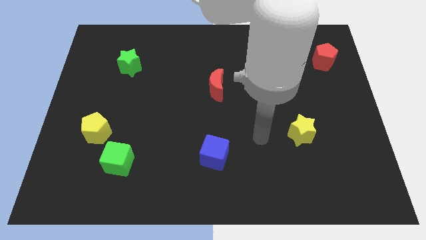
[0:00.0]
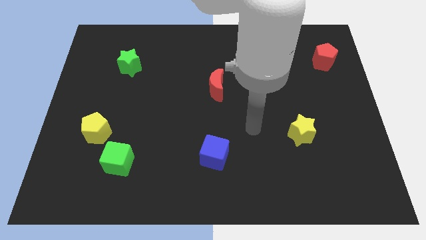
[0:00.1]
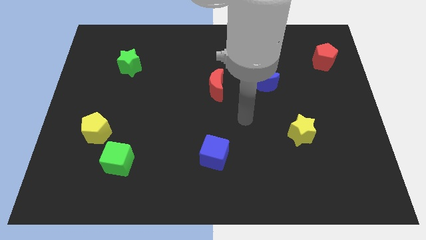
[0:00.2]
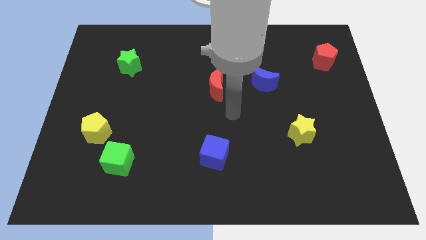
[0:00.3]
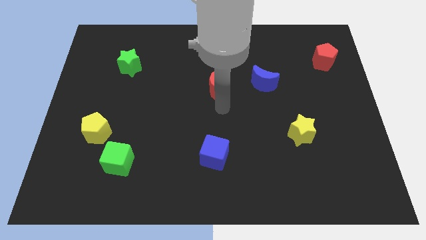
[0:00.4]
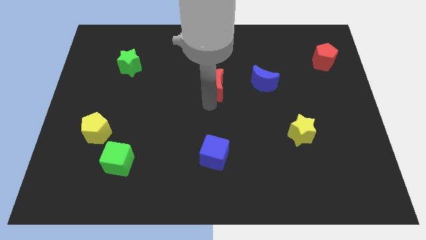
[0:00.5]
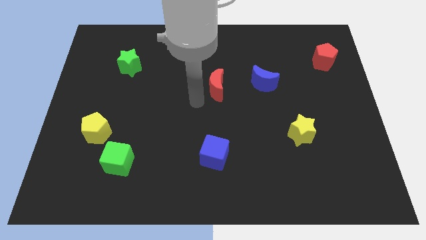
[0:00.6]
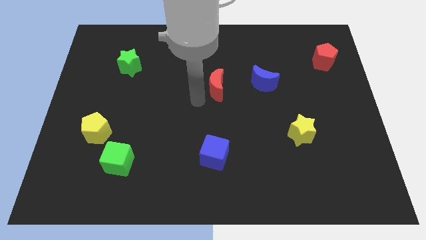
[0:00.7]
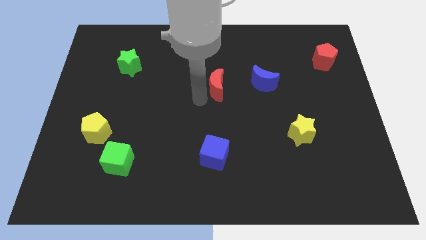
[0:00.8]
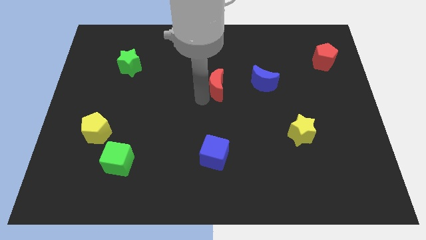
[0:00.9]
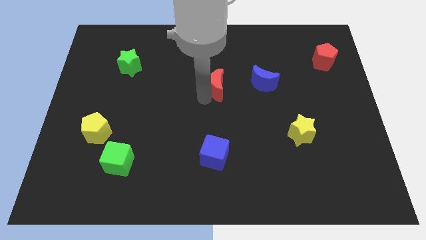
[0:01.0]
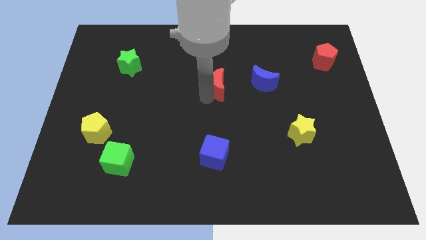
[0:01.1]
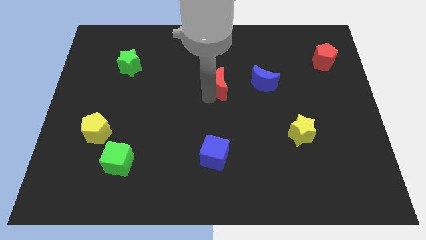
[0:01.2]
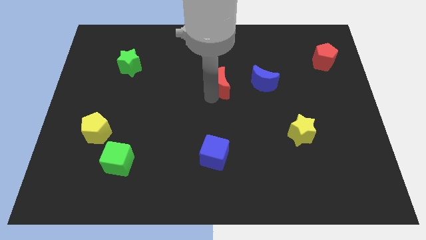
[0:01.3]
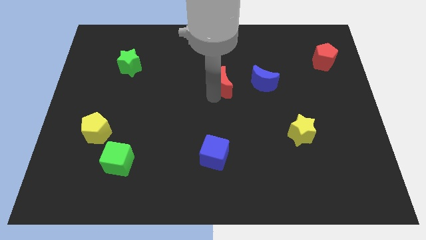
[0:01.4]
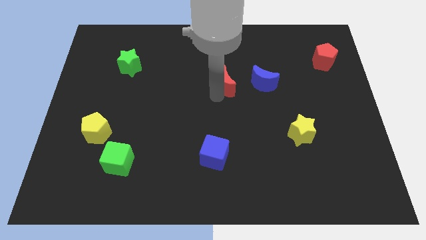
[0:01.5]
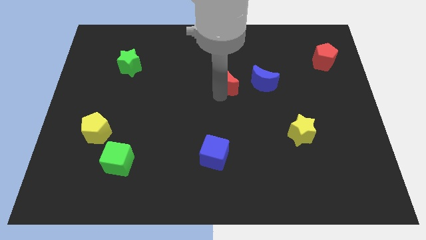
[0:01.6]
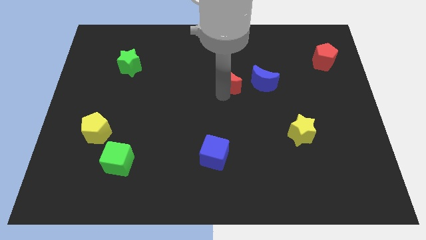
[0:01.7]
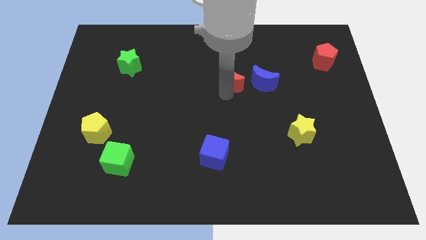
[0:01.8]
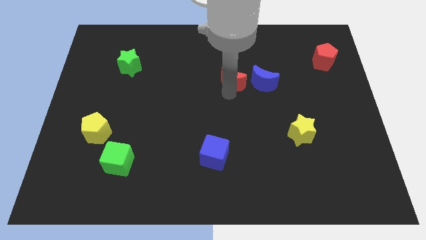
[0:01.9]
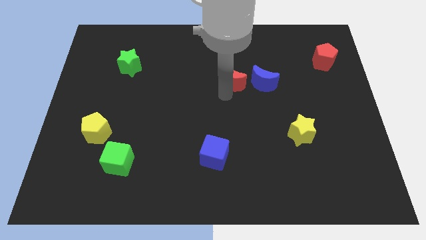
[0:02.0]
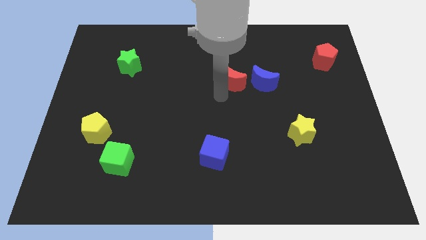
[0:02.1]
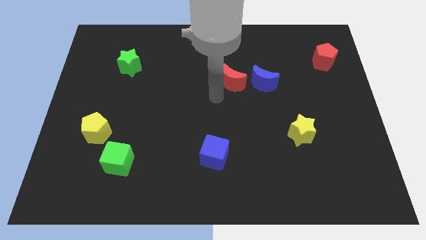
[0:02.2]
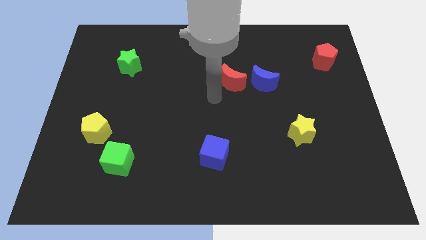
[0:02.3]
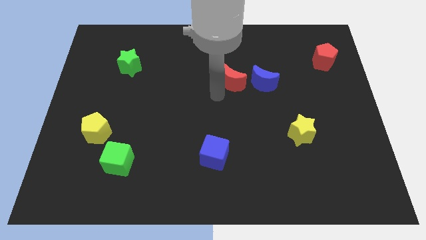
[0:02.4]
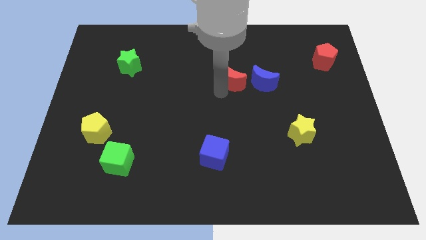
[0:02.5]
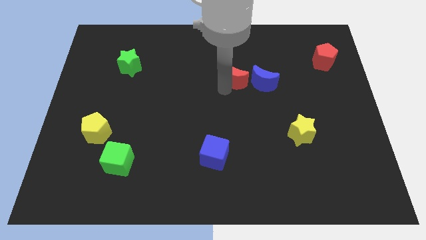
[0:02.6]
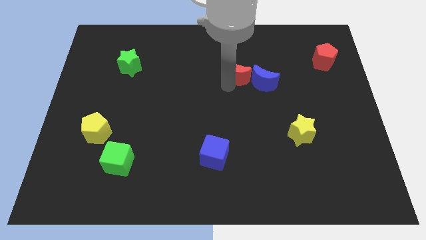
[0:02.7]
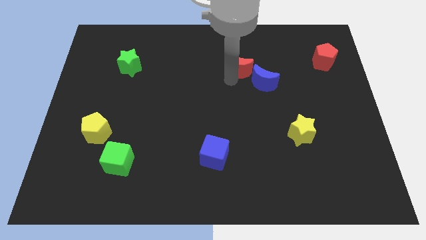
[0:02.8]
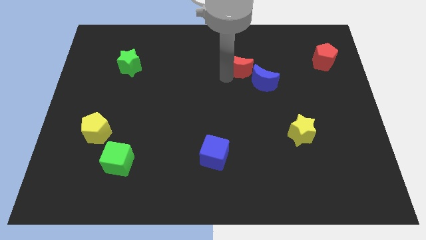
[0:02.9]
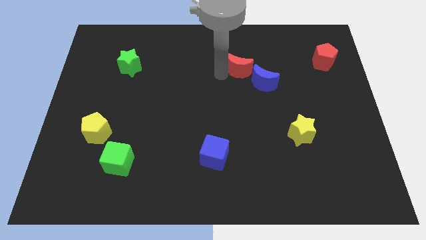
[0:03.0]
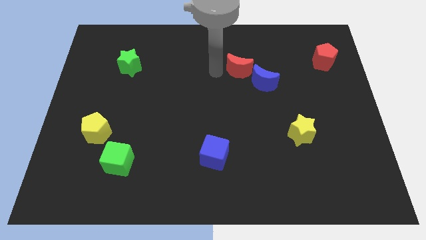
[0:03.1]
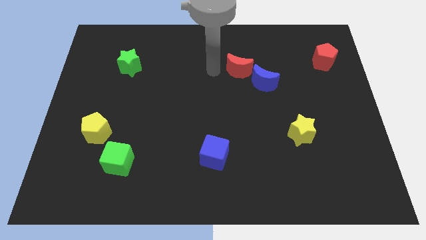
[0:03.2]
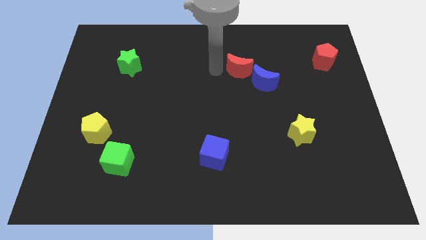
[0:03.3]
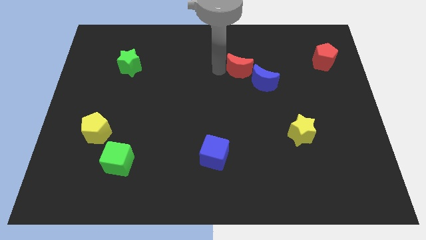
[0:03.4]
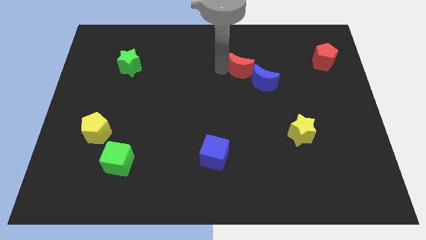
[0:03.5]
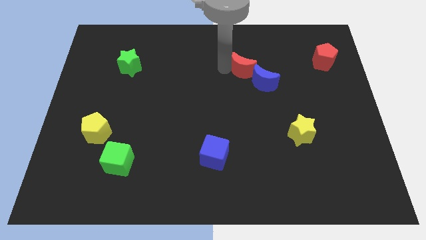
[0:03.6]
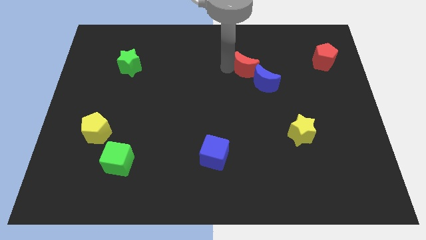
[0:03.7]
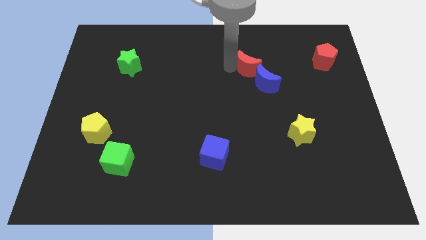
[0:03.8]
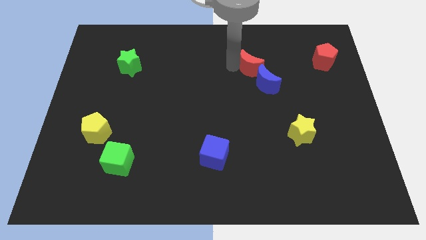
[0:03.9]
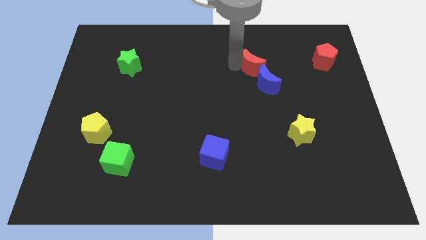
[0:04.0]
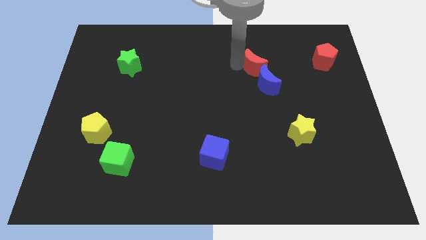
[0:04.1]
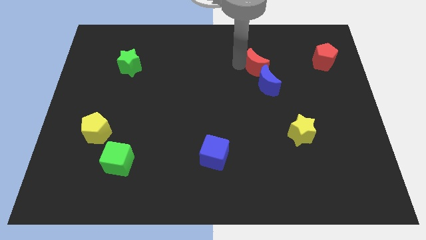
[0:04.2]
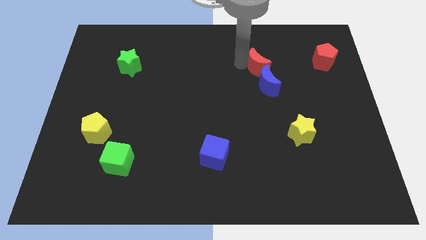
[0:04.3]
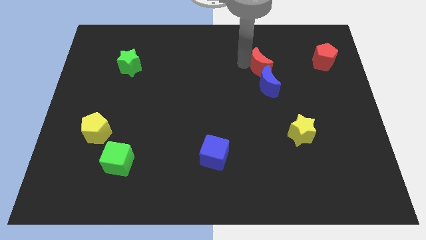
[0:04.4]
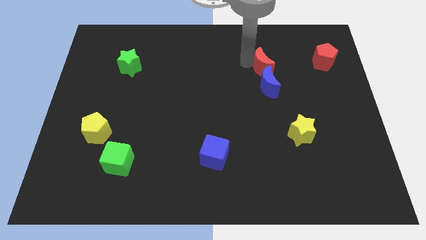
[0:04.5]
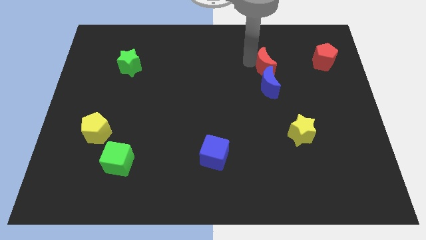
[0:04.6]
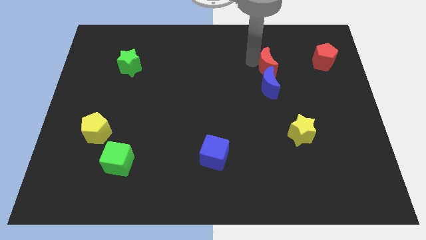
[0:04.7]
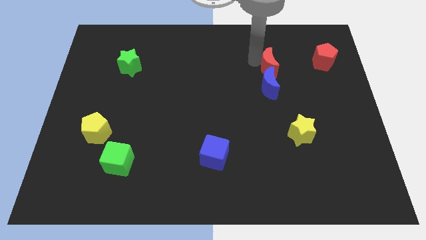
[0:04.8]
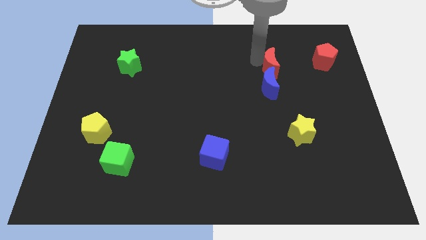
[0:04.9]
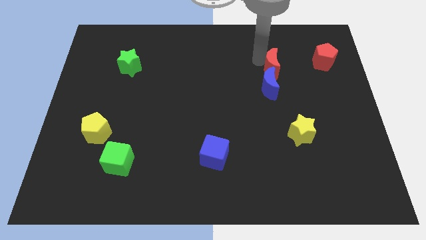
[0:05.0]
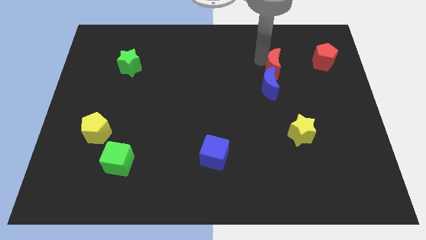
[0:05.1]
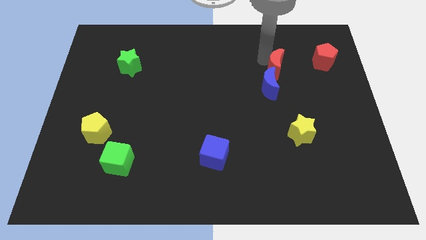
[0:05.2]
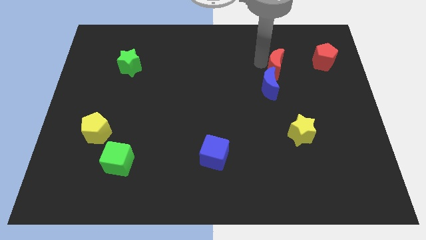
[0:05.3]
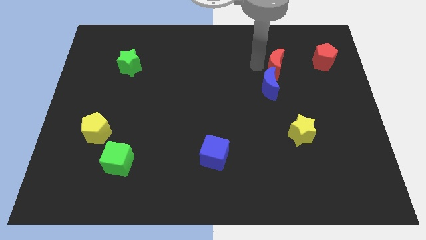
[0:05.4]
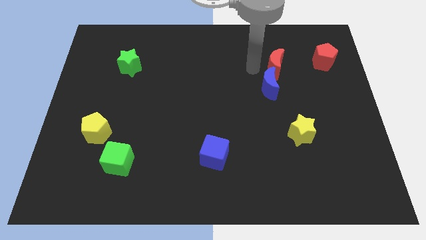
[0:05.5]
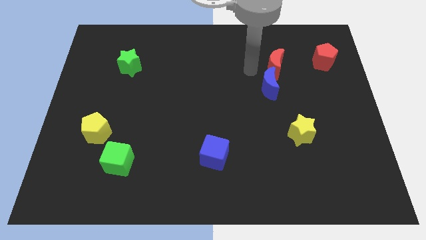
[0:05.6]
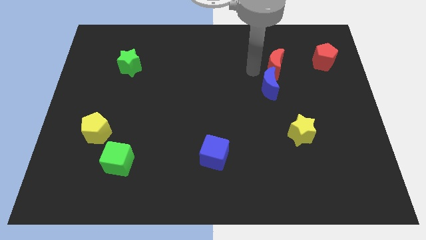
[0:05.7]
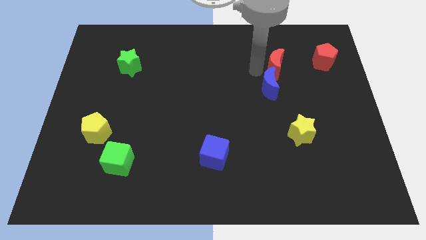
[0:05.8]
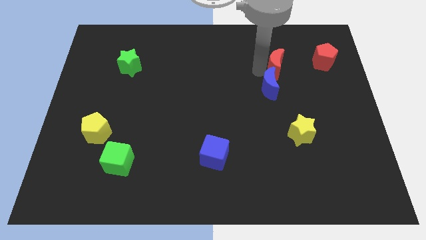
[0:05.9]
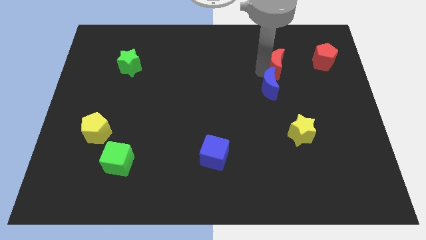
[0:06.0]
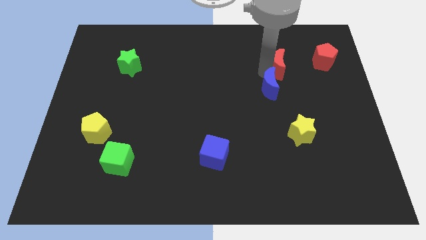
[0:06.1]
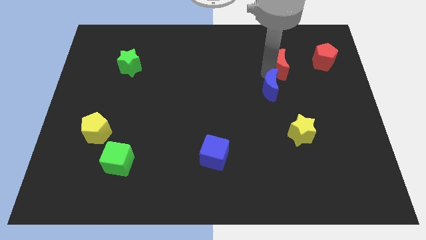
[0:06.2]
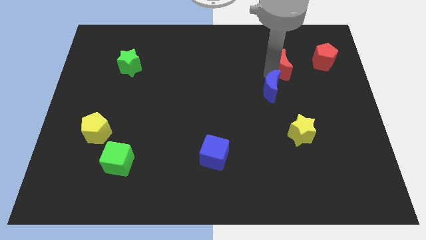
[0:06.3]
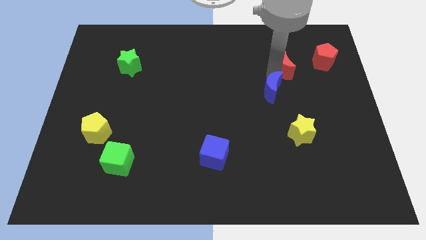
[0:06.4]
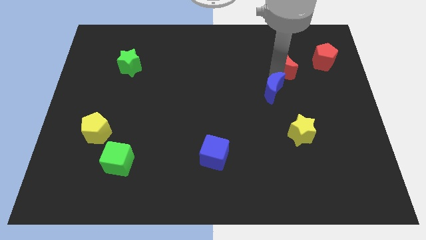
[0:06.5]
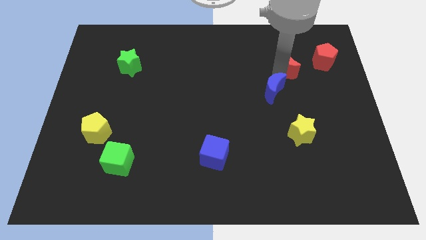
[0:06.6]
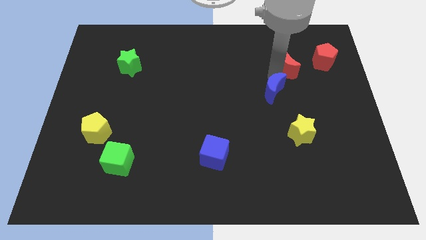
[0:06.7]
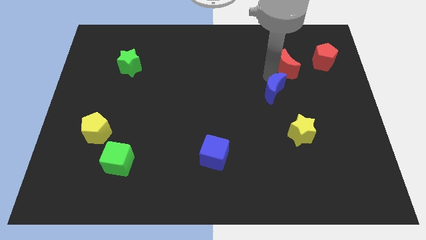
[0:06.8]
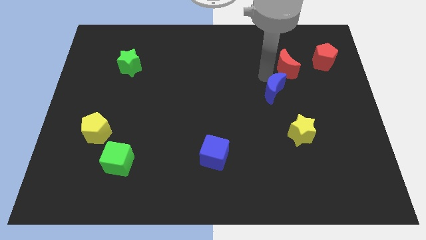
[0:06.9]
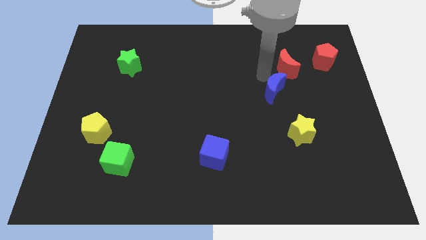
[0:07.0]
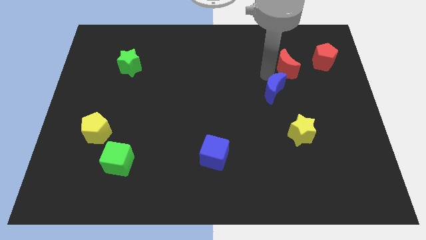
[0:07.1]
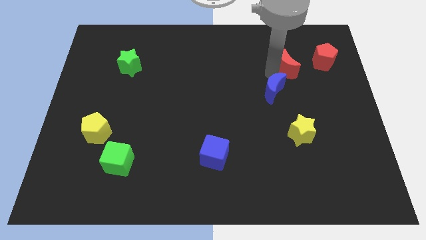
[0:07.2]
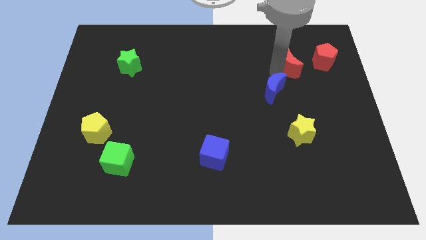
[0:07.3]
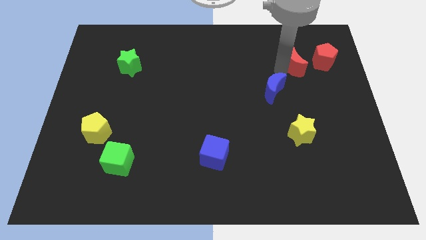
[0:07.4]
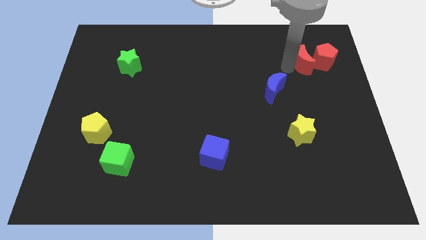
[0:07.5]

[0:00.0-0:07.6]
push the red moon next to the red pentagon
